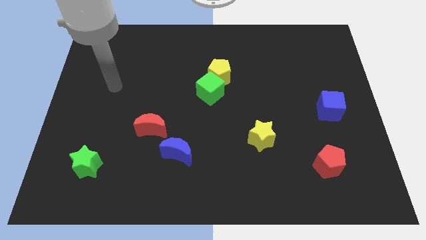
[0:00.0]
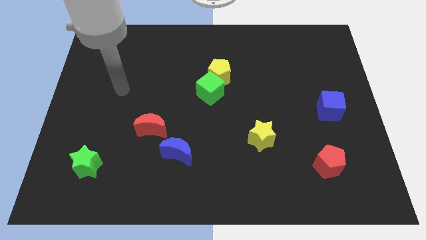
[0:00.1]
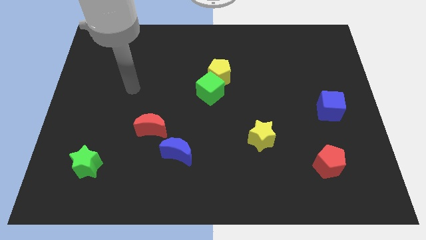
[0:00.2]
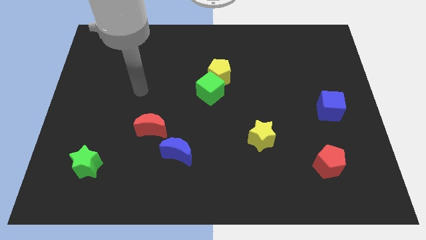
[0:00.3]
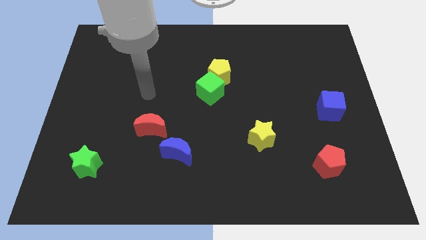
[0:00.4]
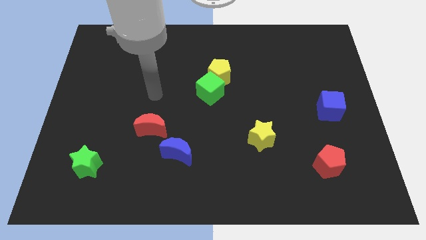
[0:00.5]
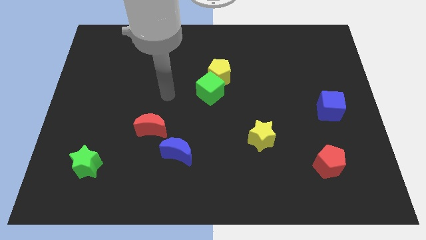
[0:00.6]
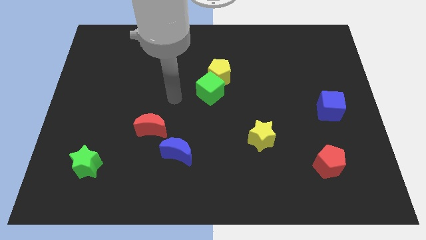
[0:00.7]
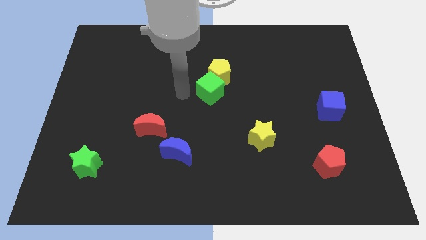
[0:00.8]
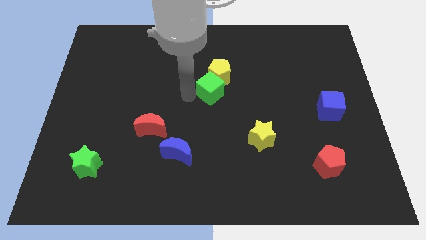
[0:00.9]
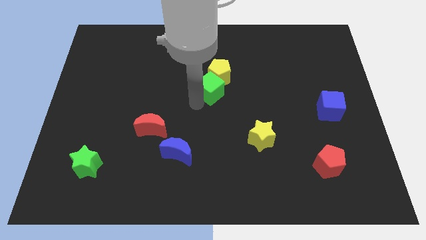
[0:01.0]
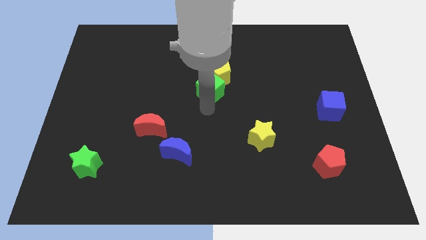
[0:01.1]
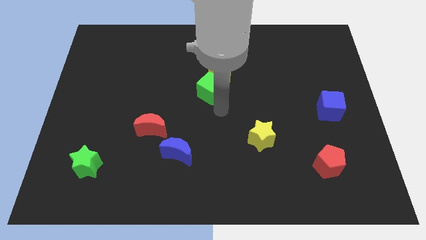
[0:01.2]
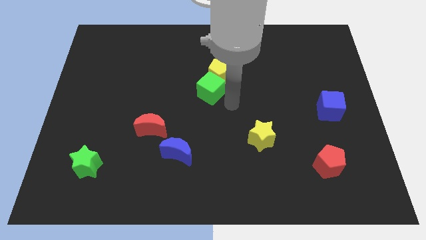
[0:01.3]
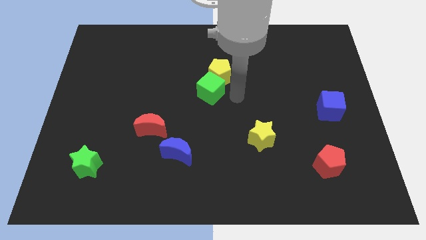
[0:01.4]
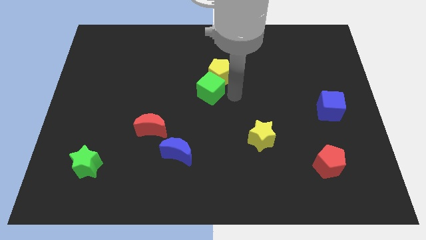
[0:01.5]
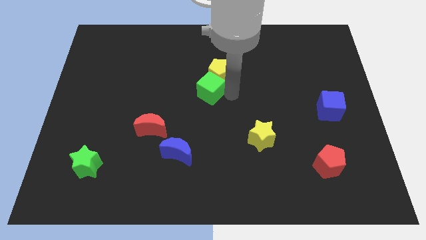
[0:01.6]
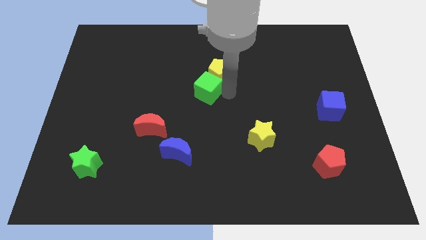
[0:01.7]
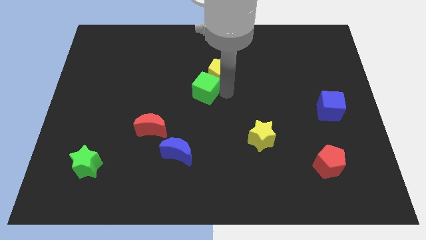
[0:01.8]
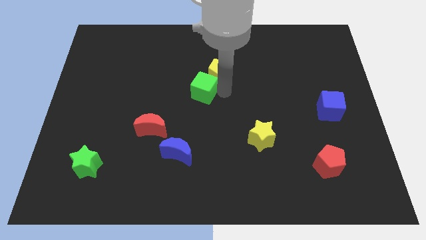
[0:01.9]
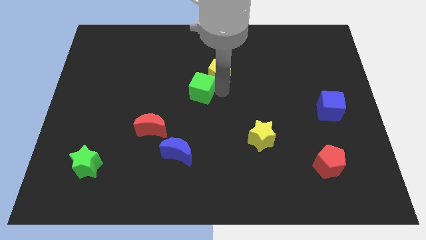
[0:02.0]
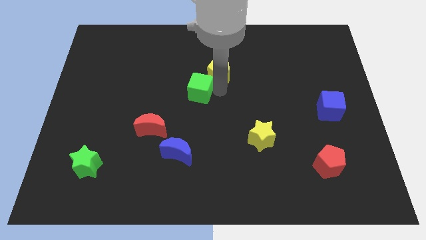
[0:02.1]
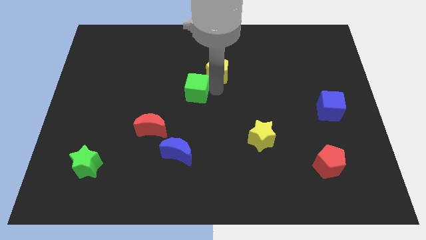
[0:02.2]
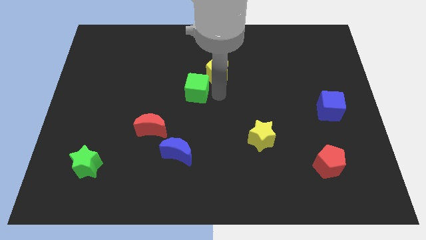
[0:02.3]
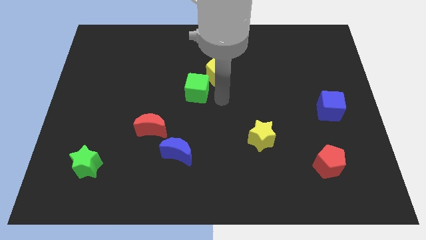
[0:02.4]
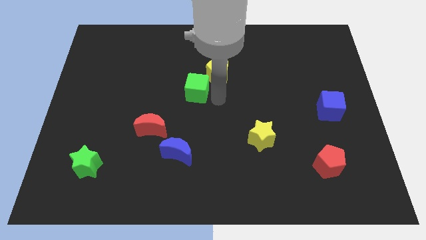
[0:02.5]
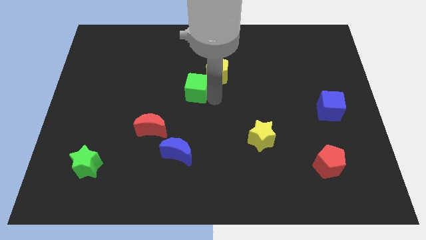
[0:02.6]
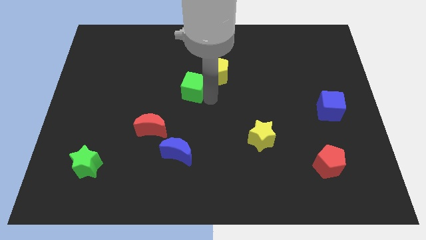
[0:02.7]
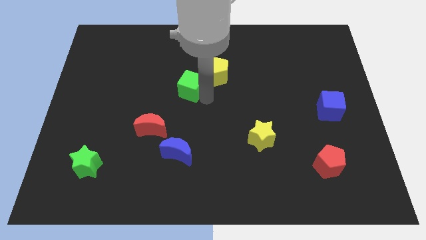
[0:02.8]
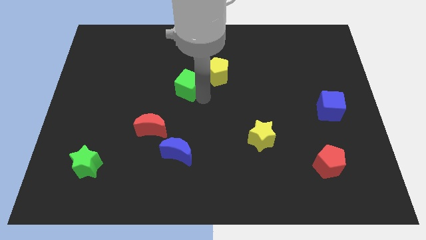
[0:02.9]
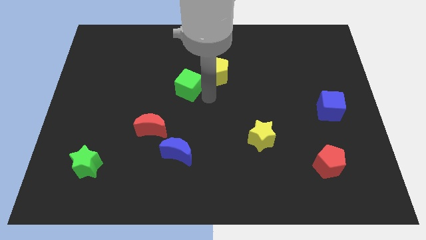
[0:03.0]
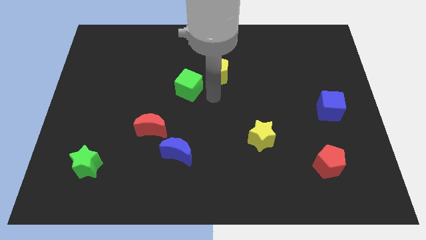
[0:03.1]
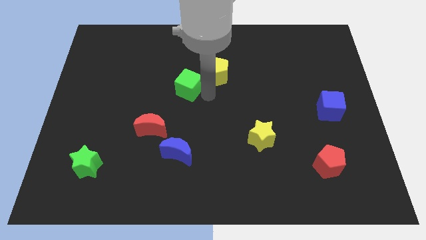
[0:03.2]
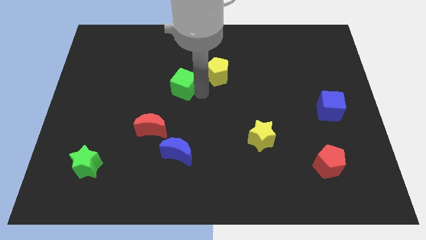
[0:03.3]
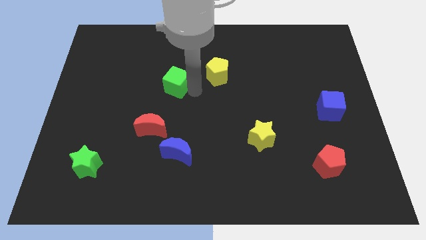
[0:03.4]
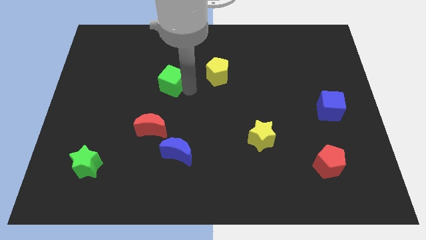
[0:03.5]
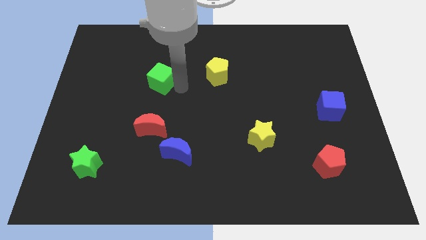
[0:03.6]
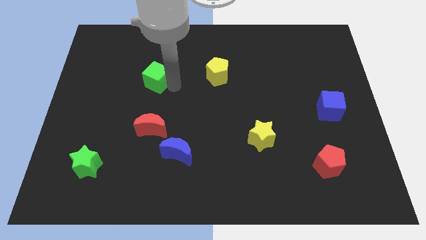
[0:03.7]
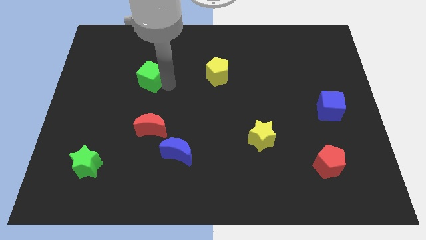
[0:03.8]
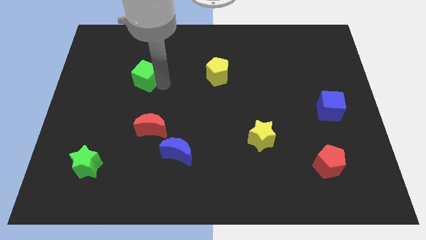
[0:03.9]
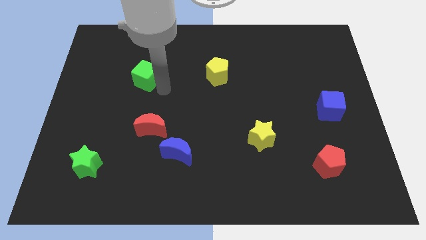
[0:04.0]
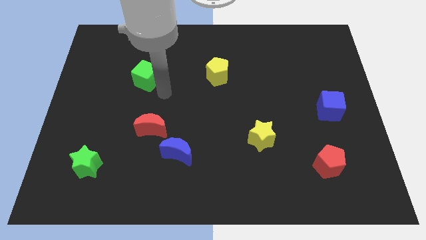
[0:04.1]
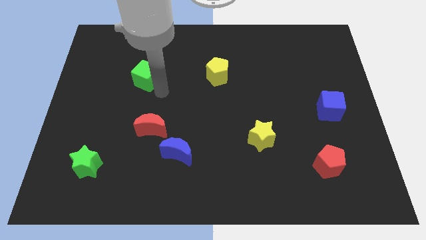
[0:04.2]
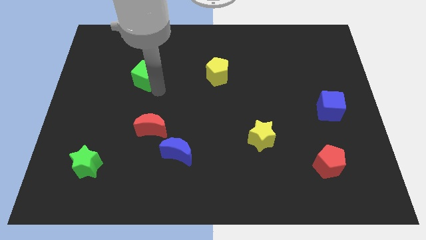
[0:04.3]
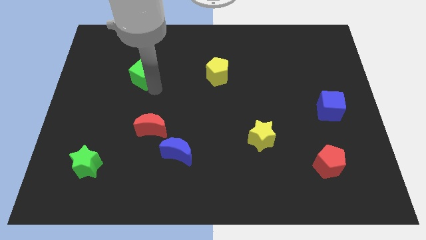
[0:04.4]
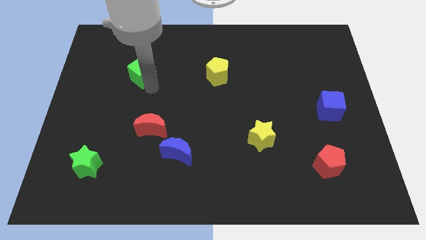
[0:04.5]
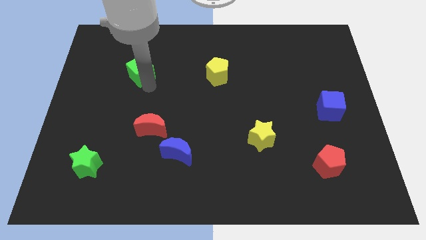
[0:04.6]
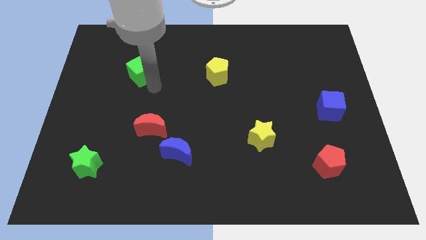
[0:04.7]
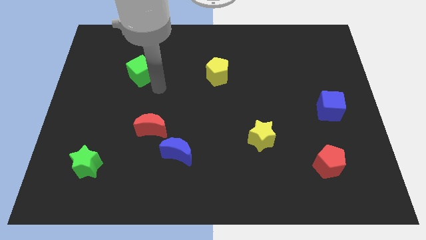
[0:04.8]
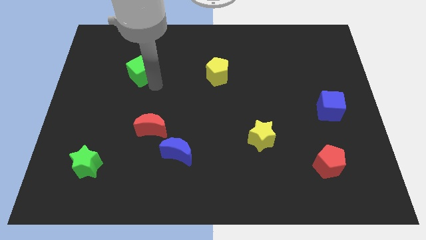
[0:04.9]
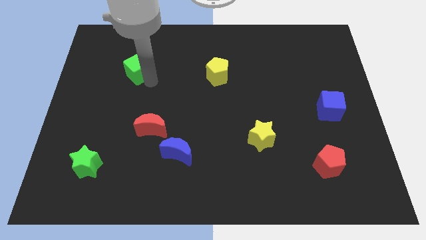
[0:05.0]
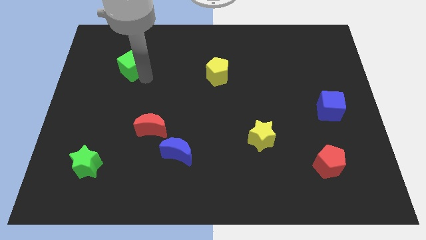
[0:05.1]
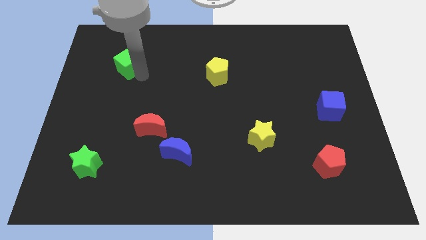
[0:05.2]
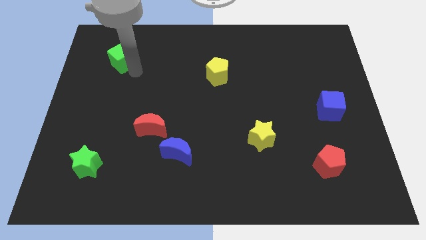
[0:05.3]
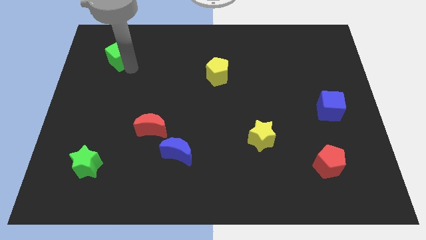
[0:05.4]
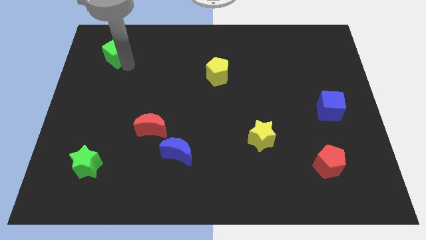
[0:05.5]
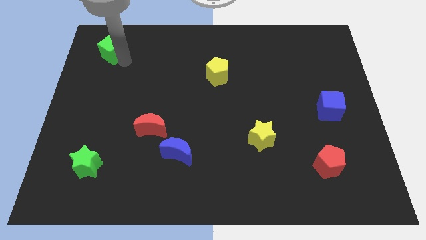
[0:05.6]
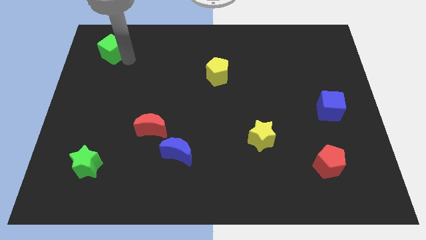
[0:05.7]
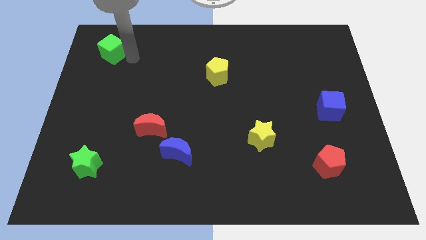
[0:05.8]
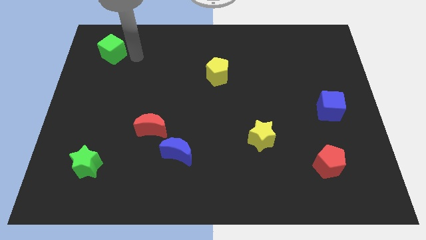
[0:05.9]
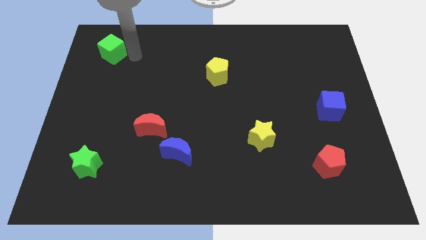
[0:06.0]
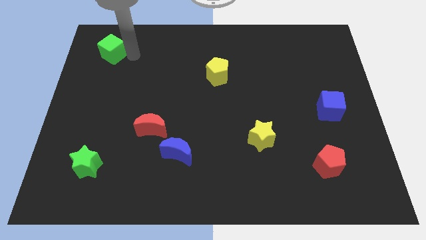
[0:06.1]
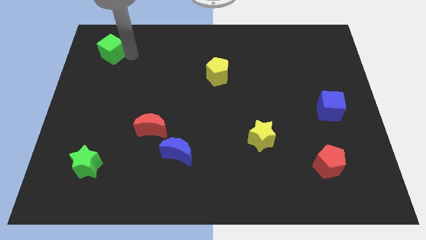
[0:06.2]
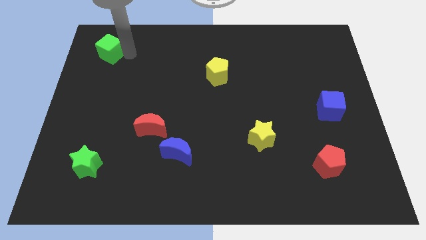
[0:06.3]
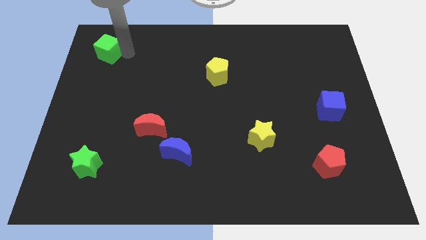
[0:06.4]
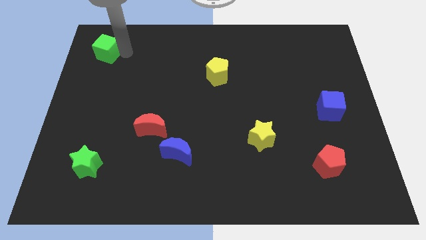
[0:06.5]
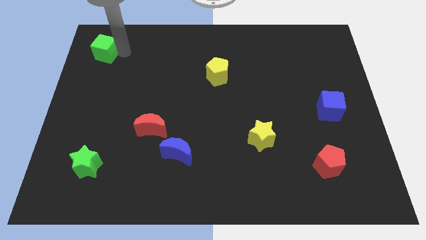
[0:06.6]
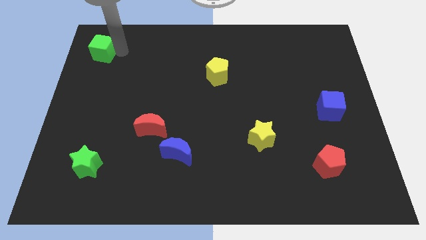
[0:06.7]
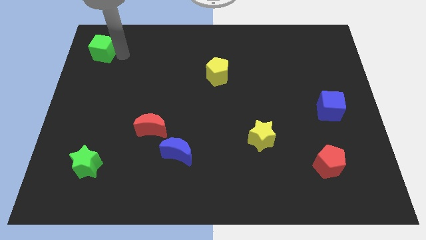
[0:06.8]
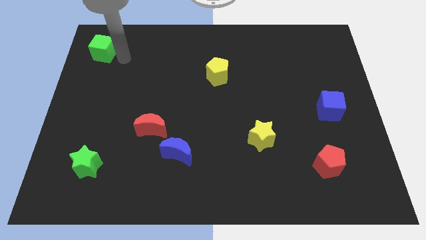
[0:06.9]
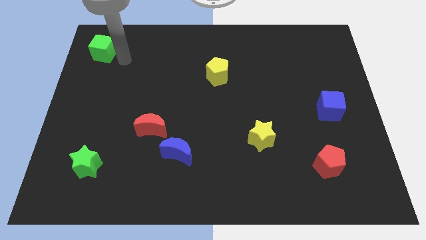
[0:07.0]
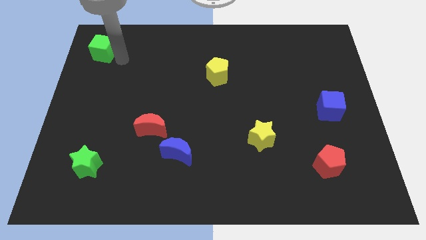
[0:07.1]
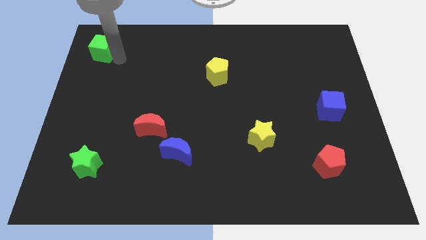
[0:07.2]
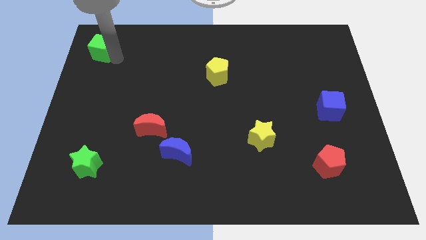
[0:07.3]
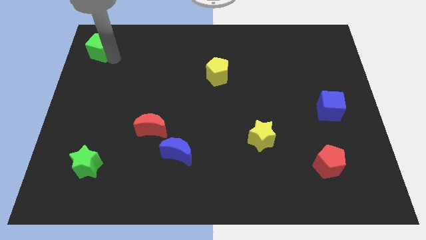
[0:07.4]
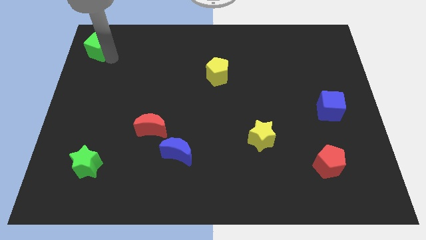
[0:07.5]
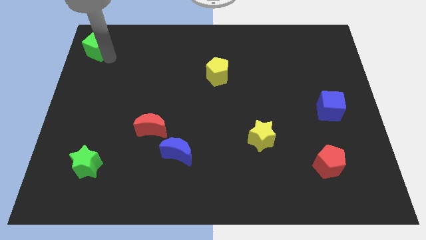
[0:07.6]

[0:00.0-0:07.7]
move the green cube to the top left
